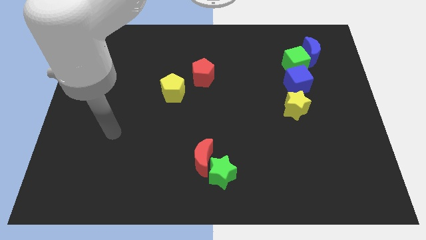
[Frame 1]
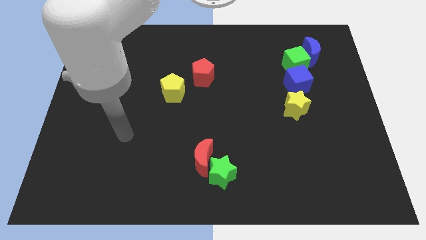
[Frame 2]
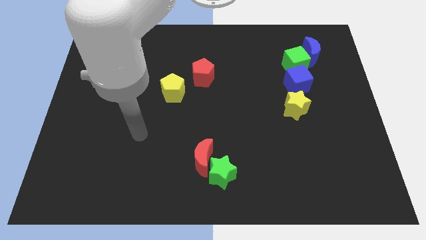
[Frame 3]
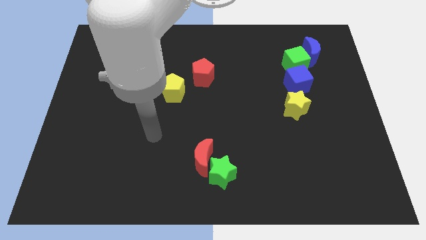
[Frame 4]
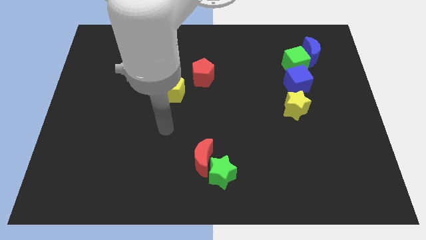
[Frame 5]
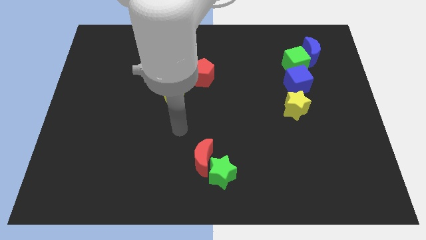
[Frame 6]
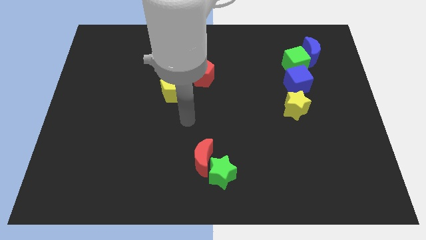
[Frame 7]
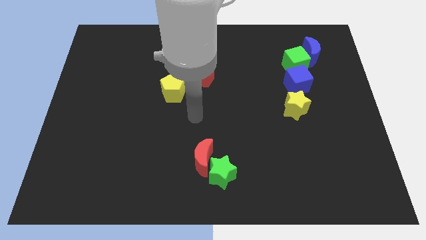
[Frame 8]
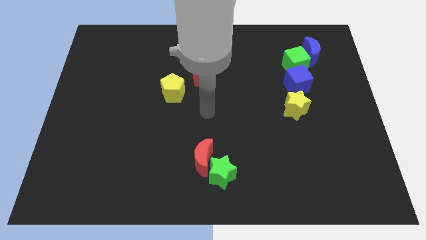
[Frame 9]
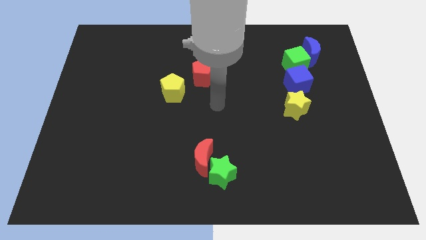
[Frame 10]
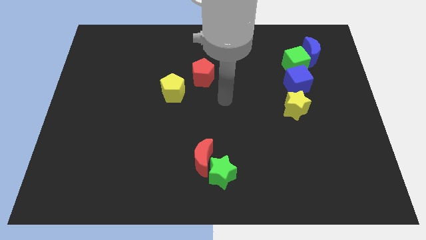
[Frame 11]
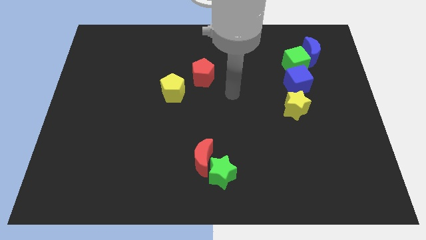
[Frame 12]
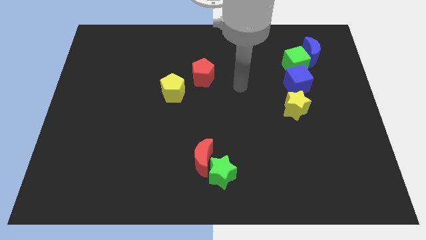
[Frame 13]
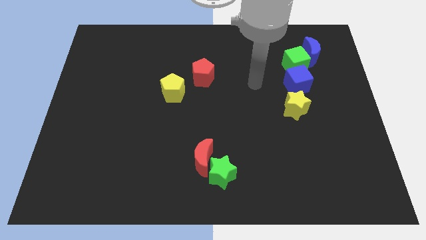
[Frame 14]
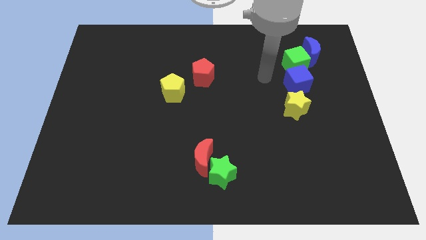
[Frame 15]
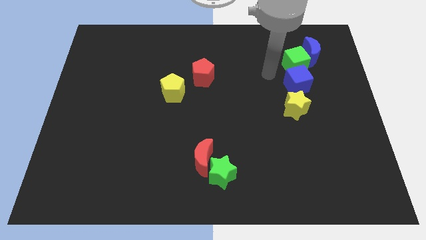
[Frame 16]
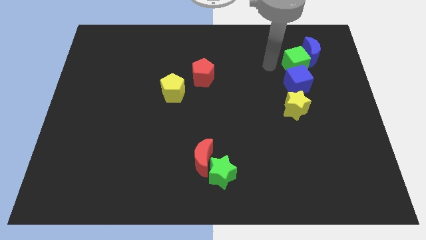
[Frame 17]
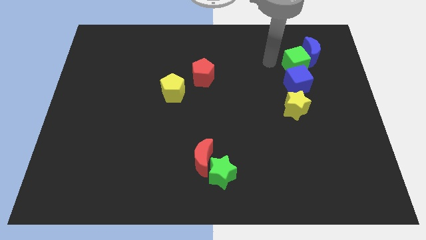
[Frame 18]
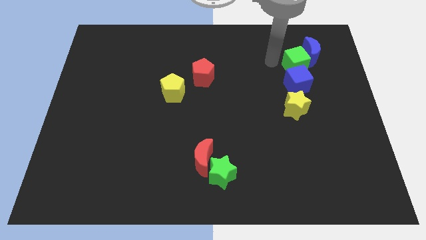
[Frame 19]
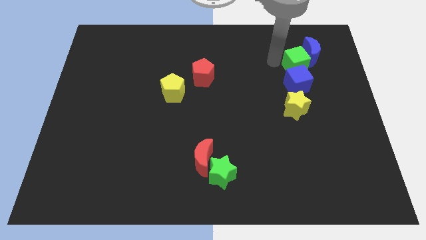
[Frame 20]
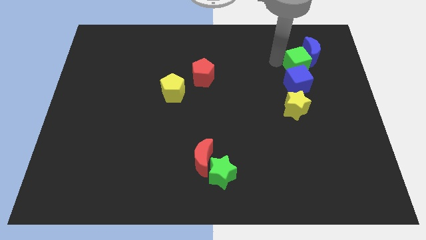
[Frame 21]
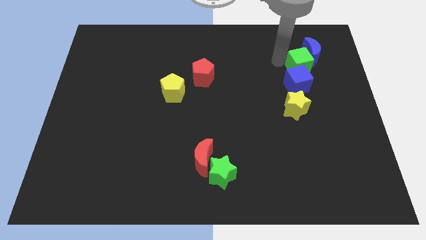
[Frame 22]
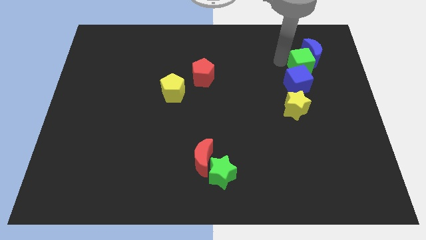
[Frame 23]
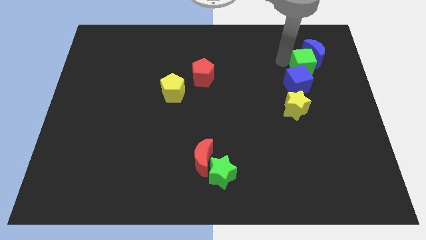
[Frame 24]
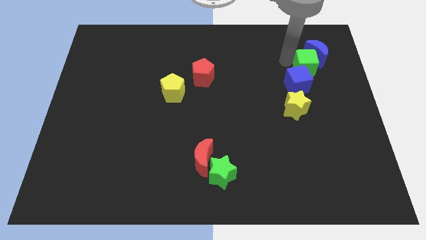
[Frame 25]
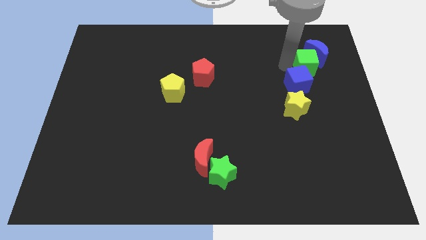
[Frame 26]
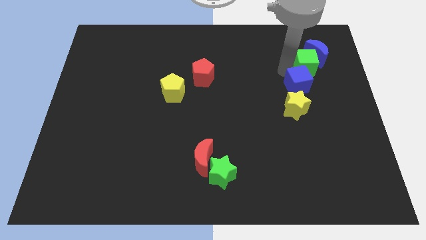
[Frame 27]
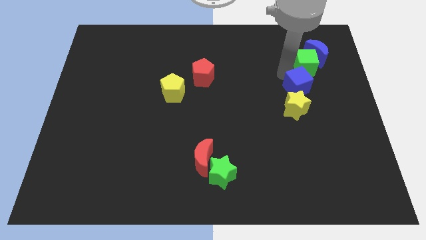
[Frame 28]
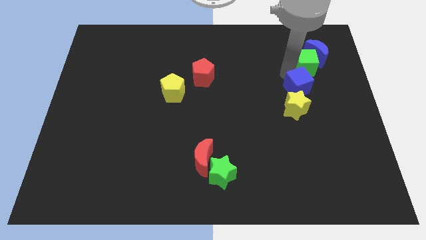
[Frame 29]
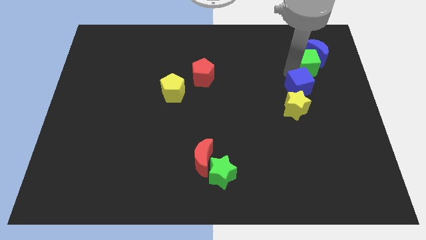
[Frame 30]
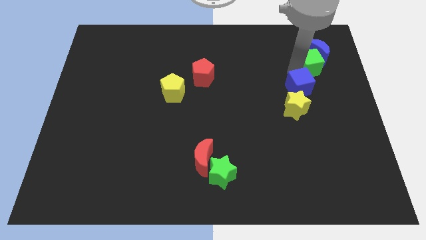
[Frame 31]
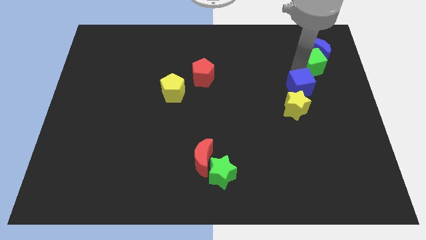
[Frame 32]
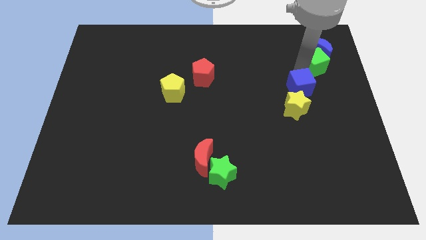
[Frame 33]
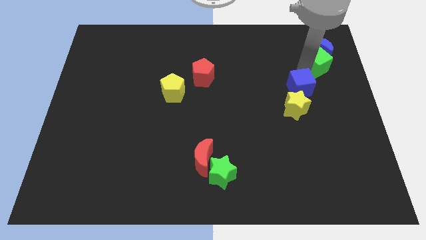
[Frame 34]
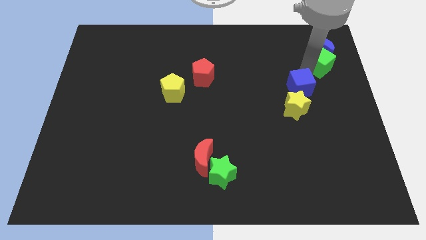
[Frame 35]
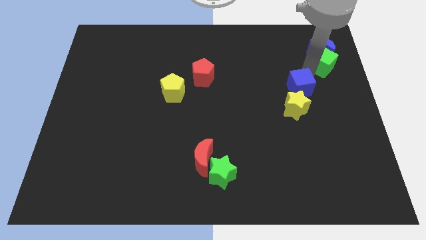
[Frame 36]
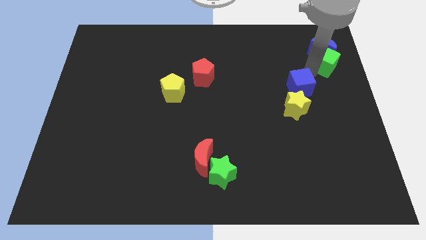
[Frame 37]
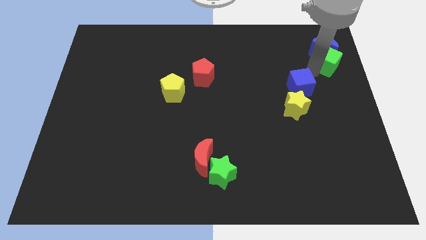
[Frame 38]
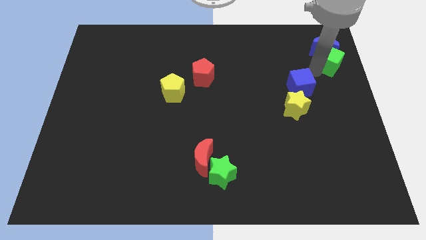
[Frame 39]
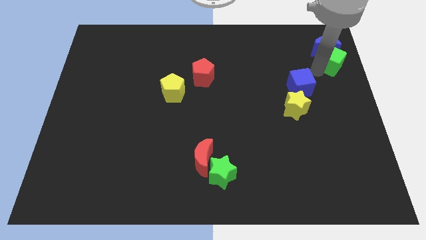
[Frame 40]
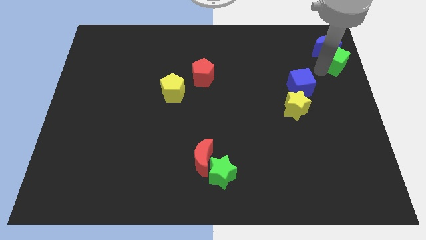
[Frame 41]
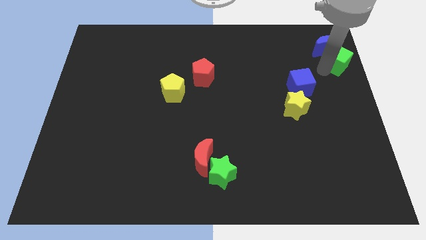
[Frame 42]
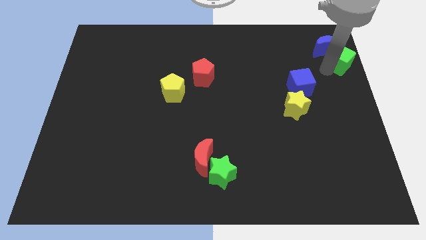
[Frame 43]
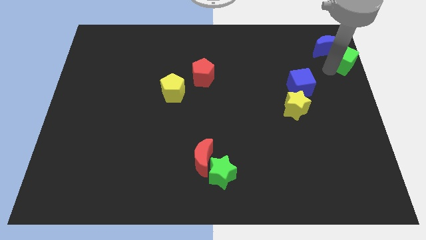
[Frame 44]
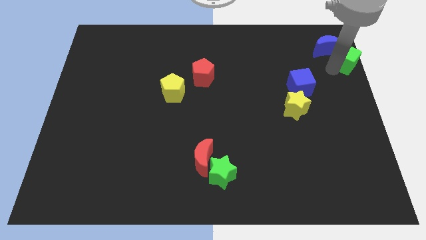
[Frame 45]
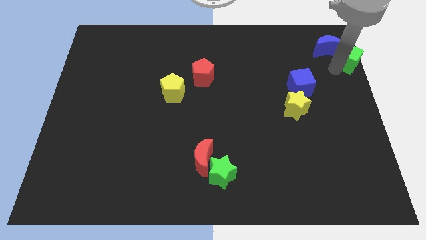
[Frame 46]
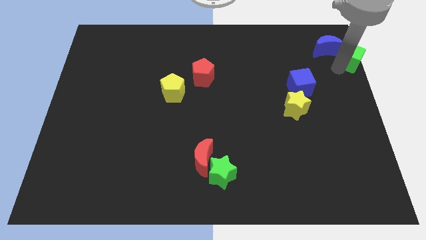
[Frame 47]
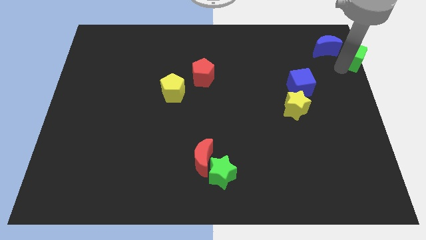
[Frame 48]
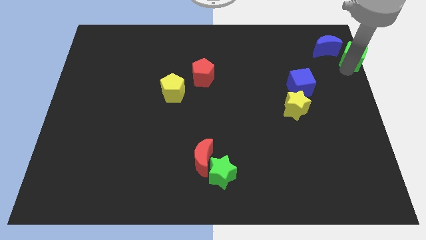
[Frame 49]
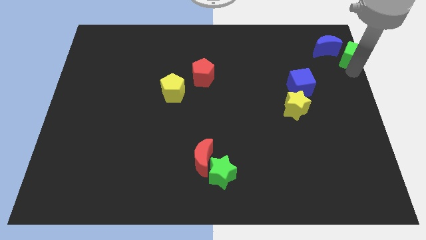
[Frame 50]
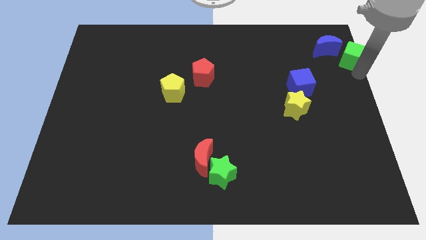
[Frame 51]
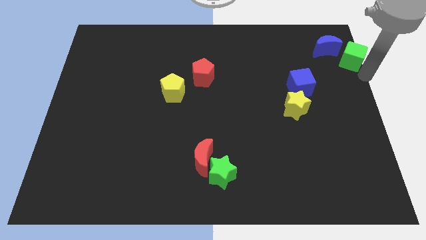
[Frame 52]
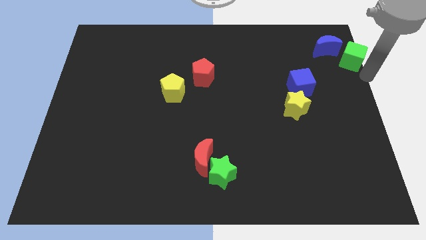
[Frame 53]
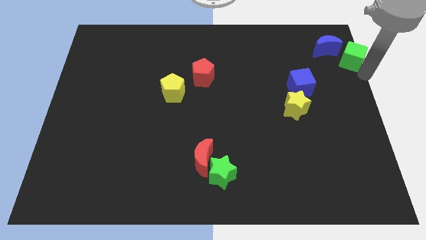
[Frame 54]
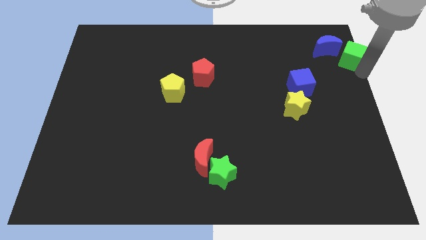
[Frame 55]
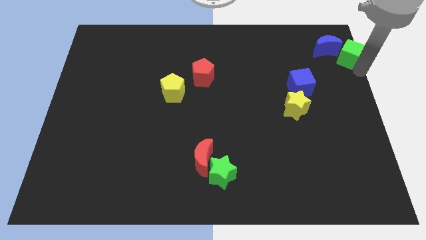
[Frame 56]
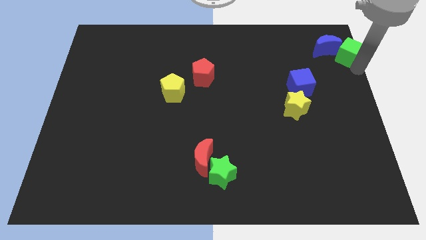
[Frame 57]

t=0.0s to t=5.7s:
put the green cube to the top right of the board
